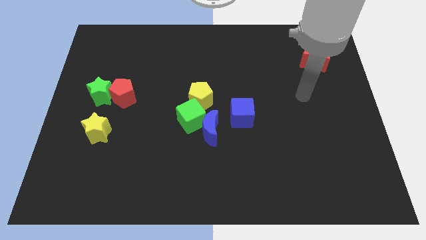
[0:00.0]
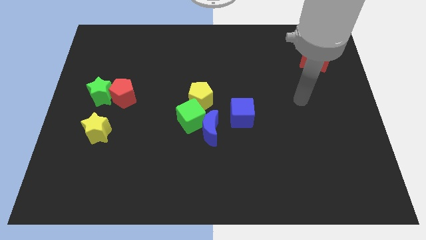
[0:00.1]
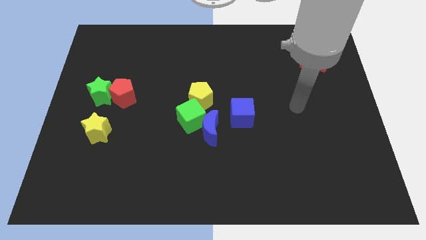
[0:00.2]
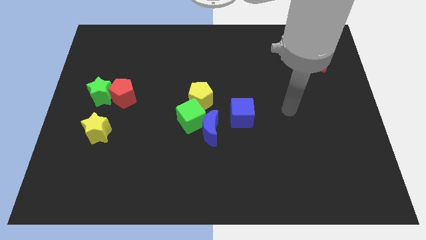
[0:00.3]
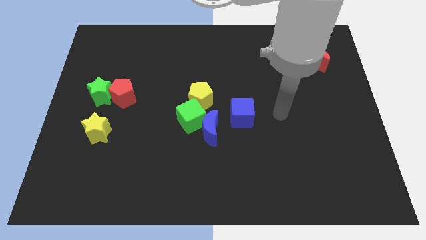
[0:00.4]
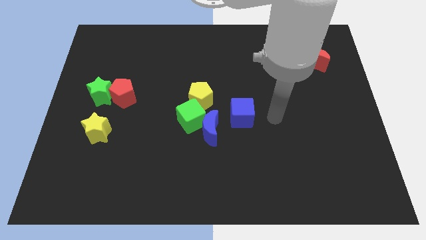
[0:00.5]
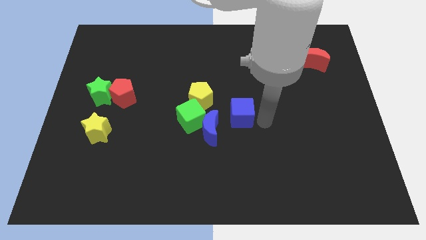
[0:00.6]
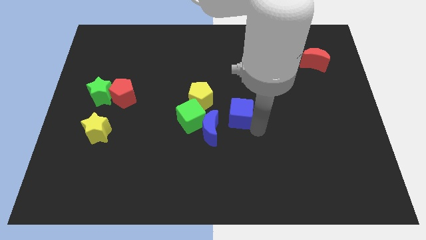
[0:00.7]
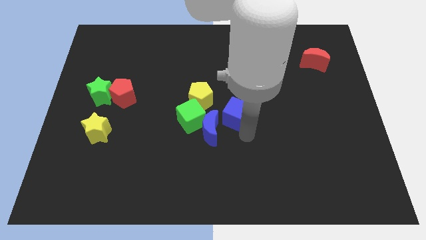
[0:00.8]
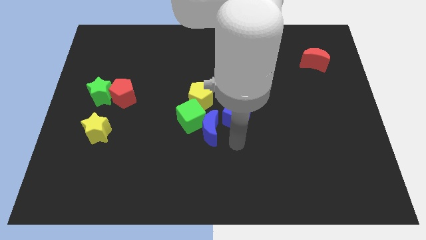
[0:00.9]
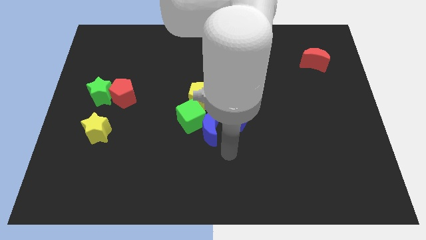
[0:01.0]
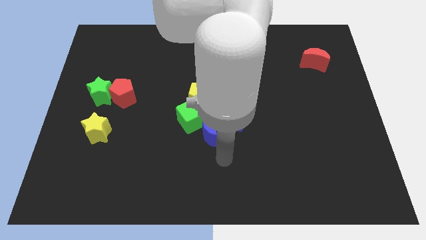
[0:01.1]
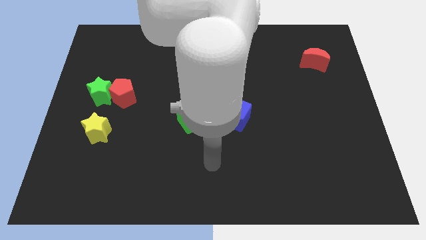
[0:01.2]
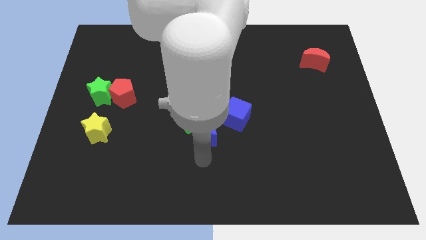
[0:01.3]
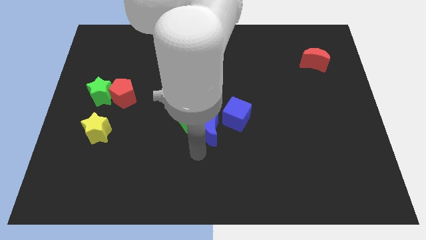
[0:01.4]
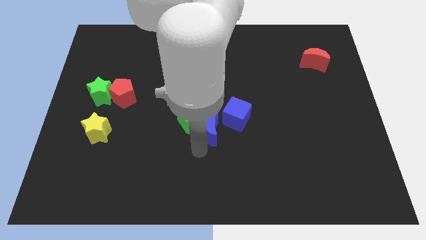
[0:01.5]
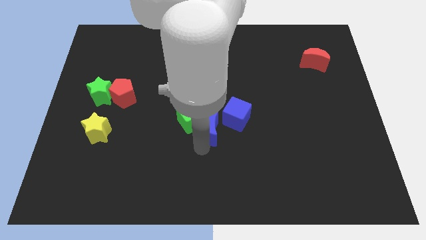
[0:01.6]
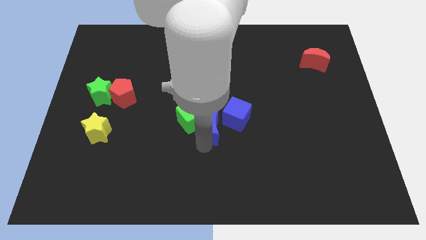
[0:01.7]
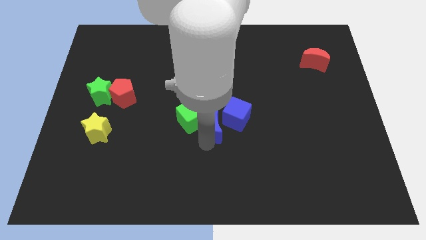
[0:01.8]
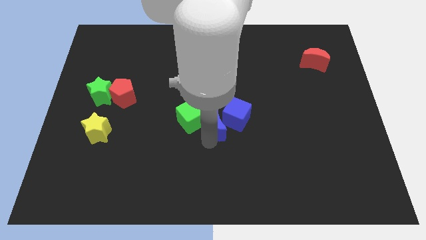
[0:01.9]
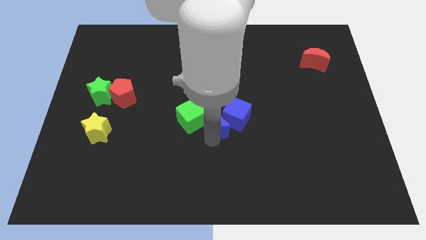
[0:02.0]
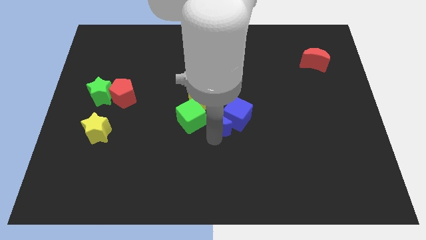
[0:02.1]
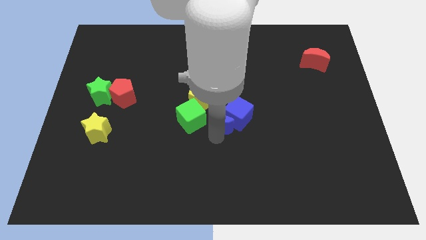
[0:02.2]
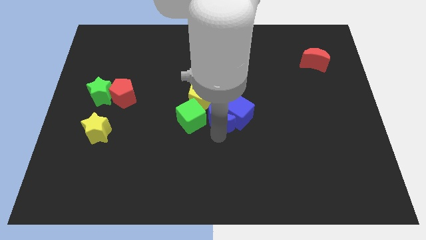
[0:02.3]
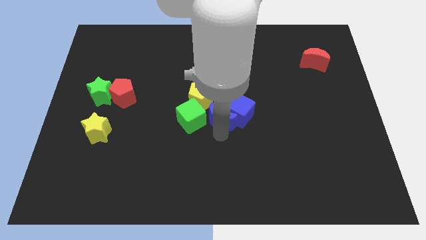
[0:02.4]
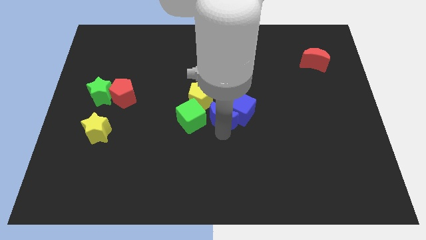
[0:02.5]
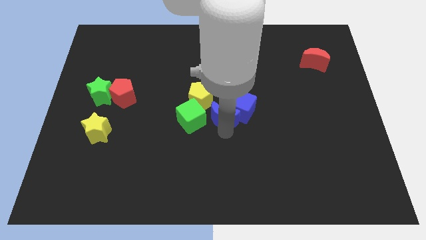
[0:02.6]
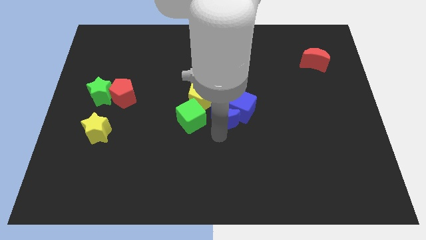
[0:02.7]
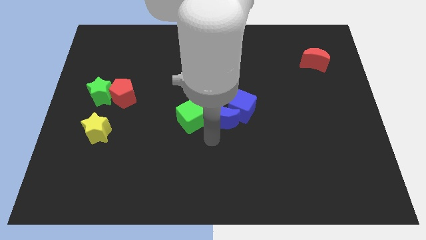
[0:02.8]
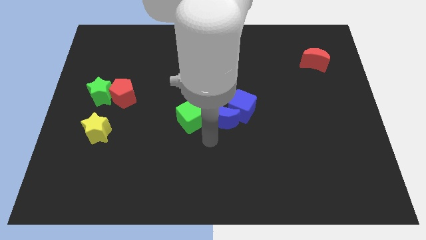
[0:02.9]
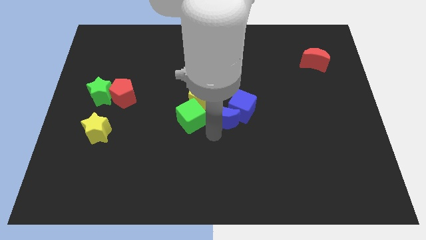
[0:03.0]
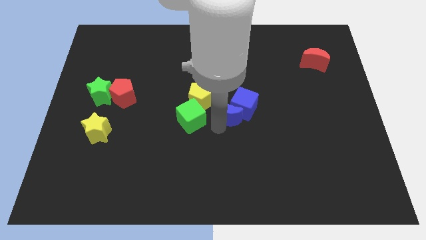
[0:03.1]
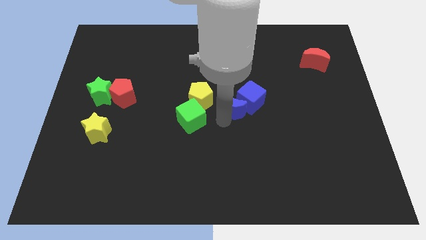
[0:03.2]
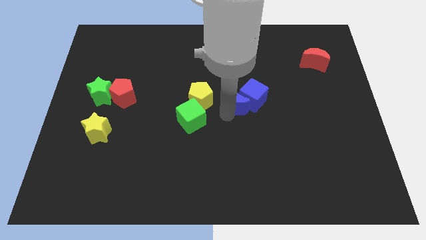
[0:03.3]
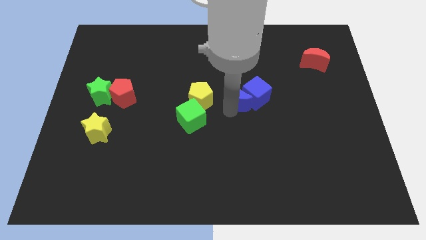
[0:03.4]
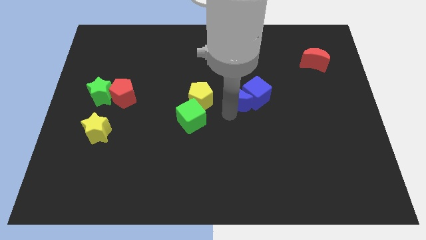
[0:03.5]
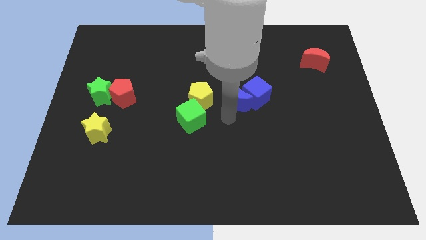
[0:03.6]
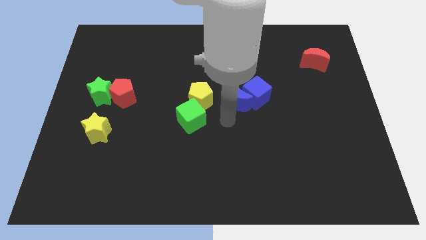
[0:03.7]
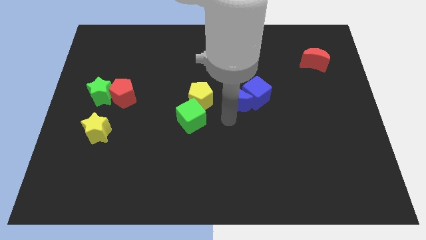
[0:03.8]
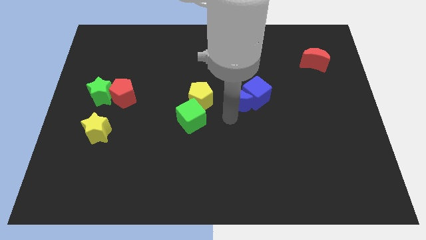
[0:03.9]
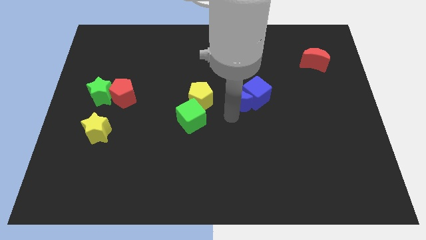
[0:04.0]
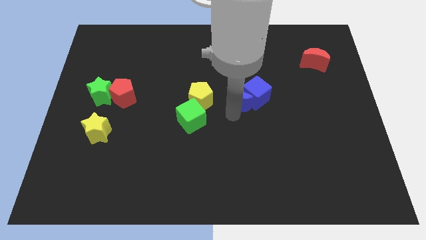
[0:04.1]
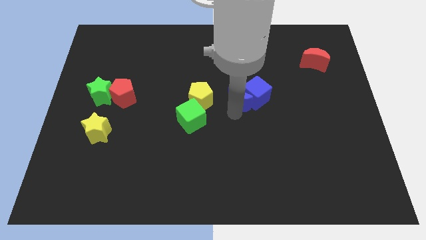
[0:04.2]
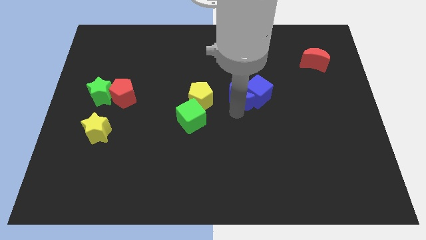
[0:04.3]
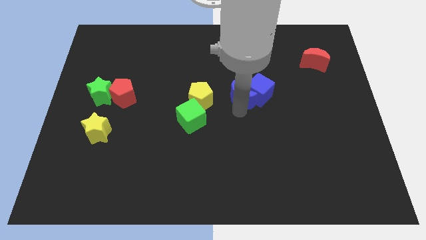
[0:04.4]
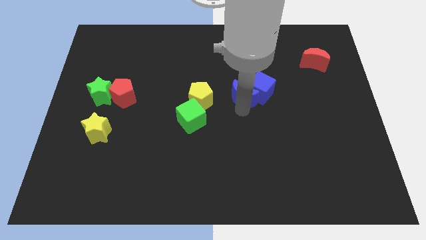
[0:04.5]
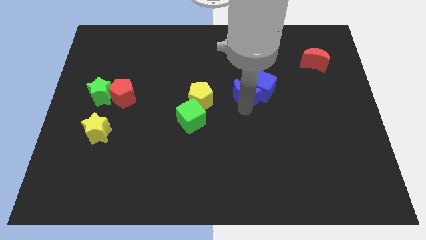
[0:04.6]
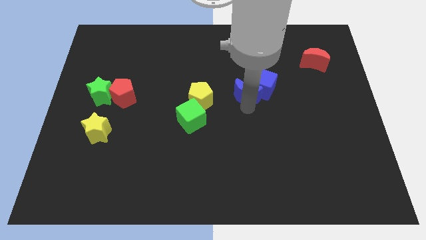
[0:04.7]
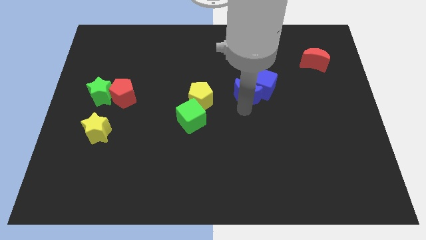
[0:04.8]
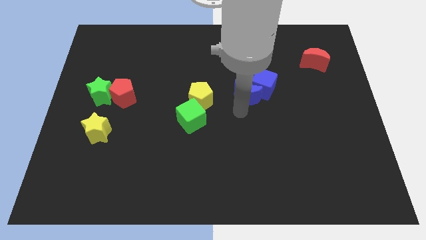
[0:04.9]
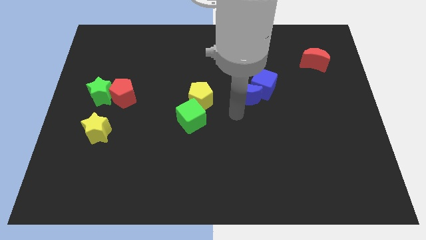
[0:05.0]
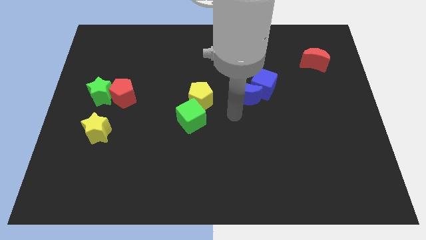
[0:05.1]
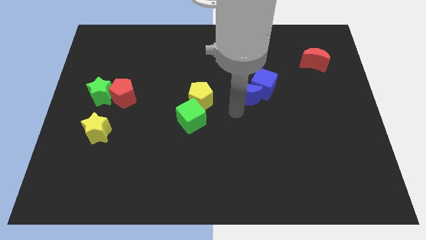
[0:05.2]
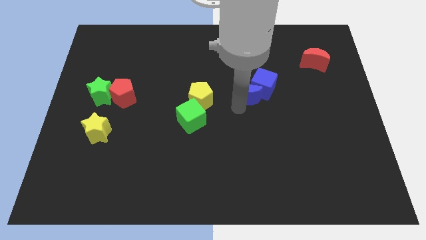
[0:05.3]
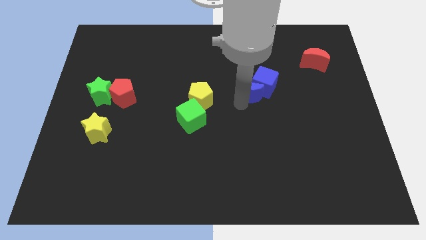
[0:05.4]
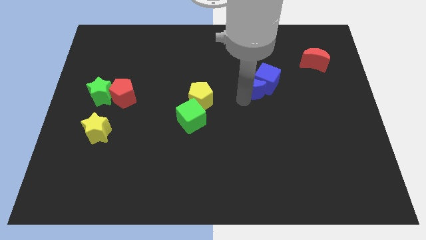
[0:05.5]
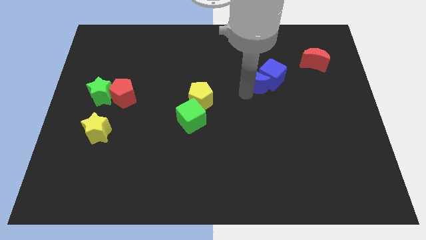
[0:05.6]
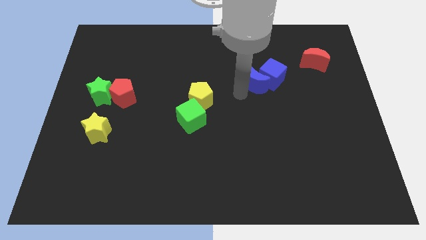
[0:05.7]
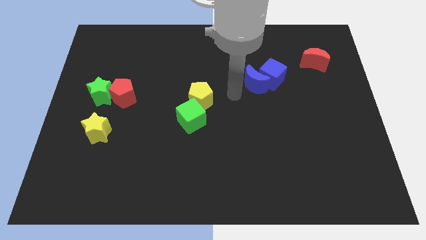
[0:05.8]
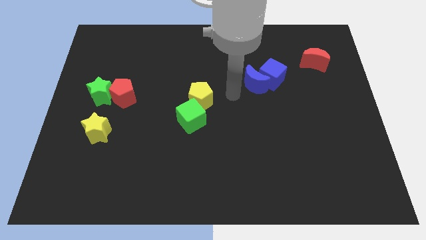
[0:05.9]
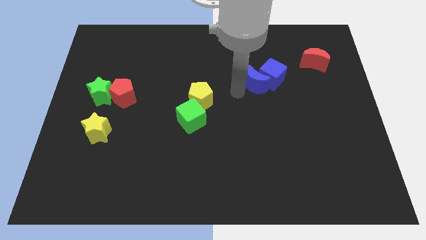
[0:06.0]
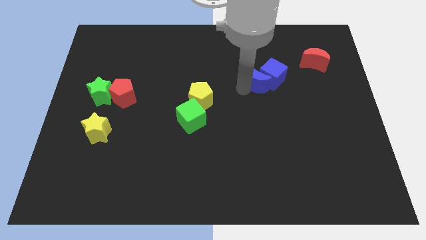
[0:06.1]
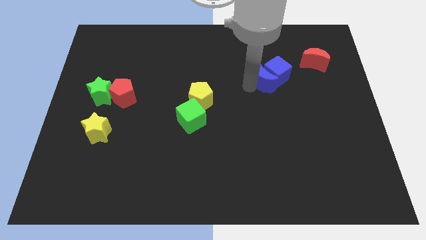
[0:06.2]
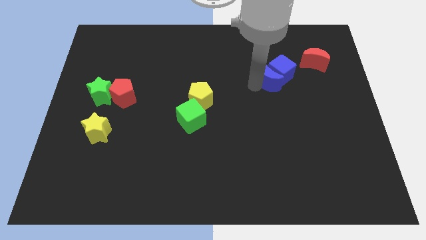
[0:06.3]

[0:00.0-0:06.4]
slide the blue moon upwards and then to the right

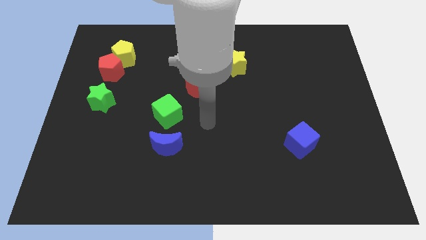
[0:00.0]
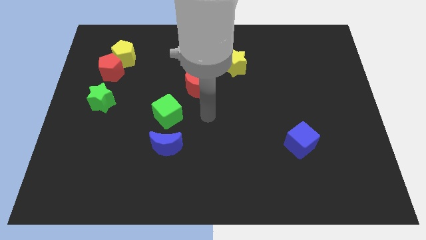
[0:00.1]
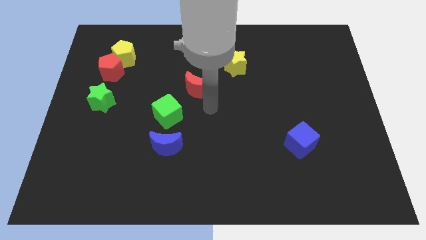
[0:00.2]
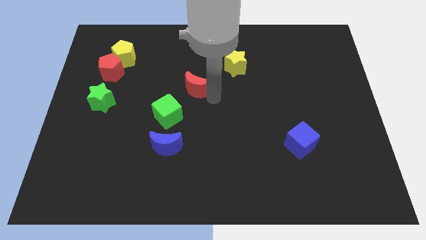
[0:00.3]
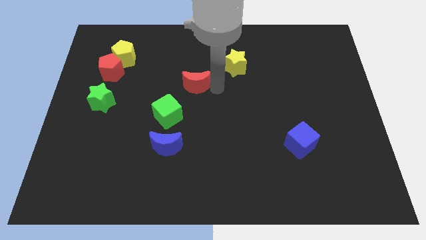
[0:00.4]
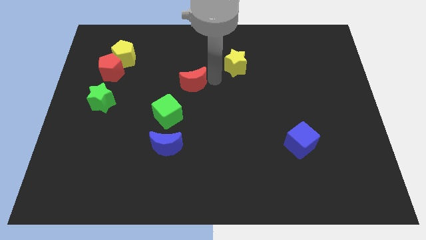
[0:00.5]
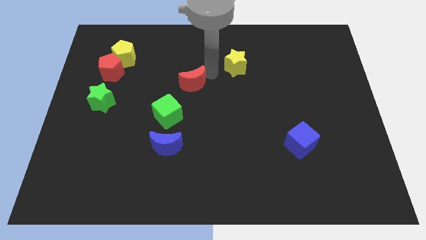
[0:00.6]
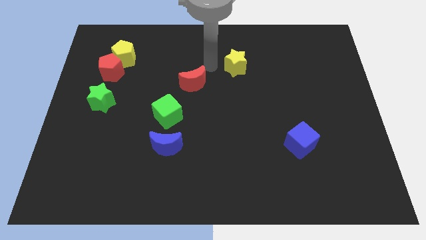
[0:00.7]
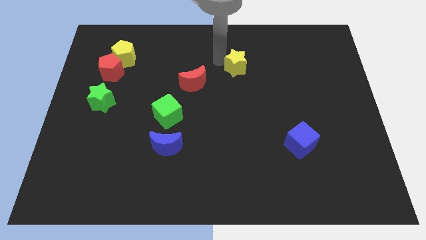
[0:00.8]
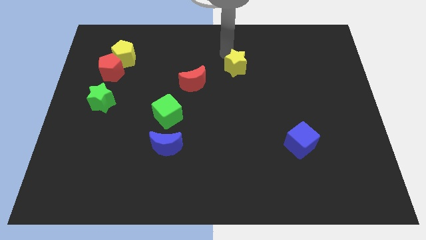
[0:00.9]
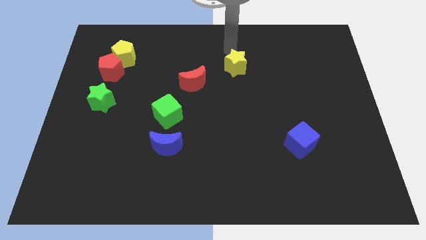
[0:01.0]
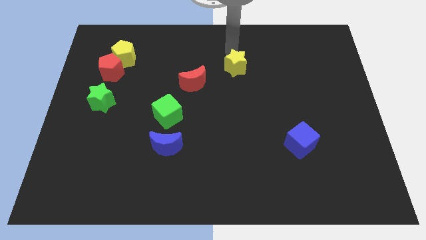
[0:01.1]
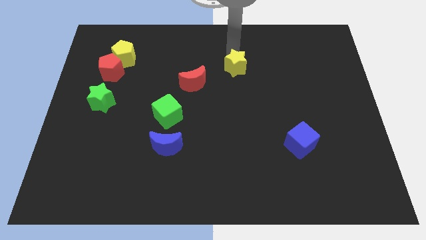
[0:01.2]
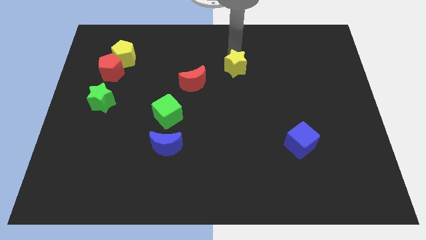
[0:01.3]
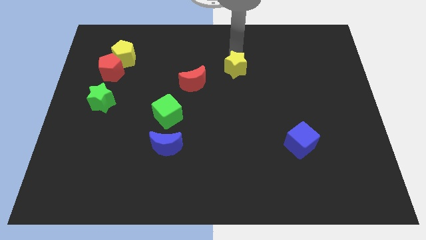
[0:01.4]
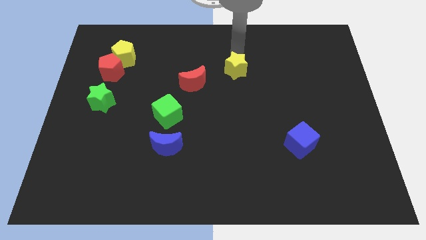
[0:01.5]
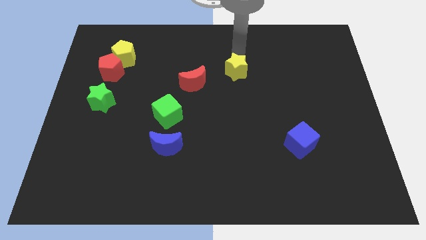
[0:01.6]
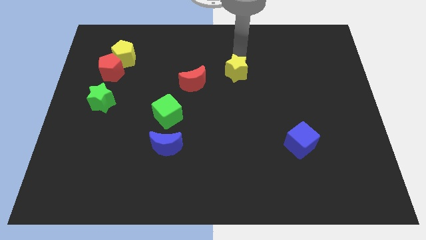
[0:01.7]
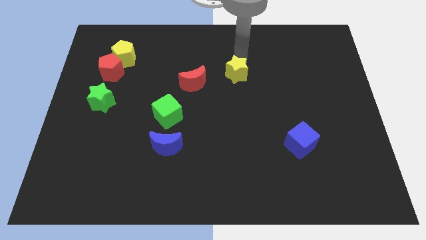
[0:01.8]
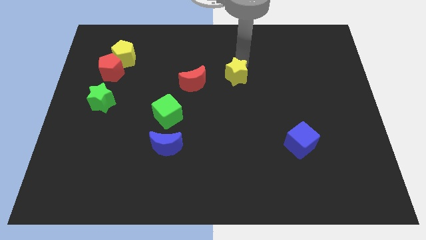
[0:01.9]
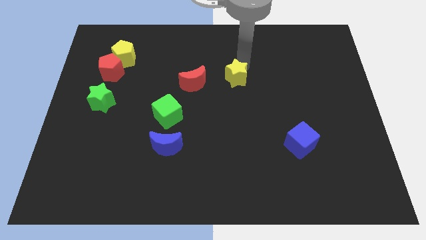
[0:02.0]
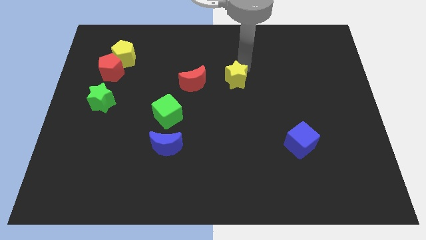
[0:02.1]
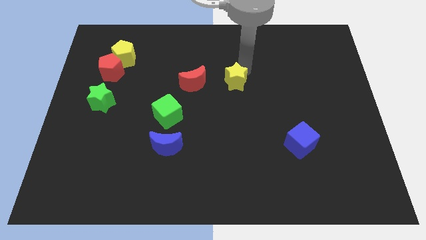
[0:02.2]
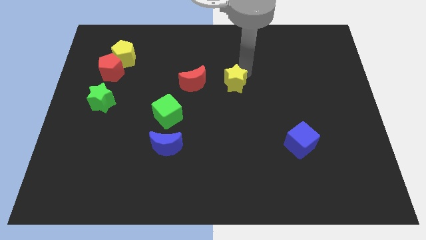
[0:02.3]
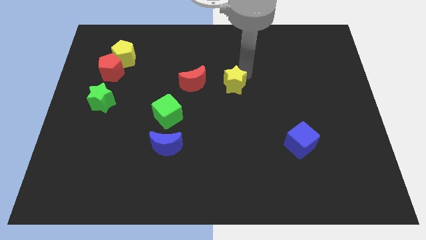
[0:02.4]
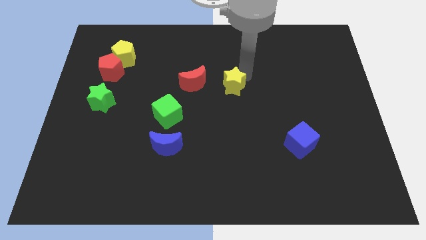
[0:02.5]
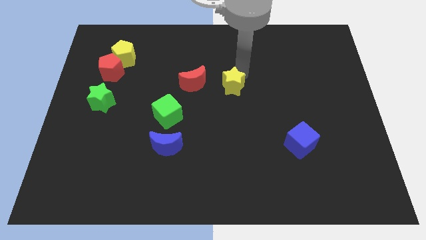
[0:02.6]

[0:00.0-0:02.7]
push the yellow star down a little bit
